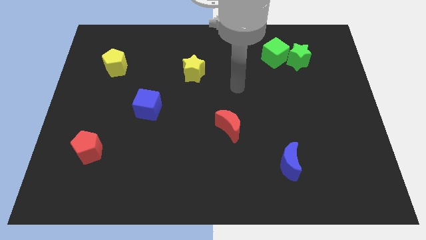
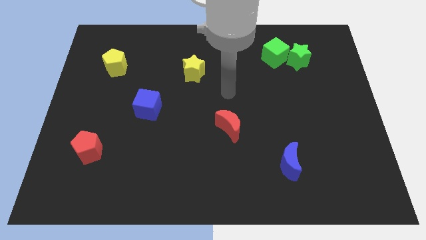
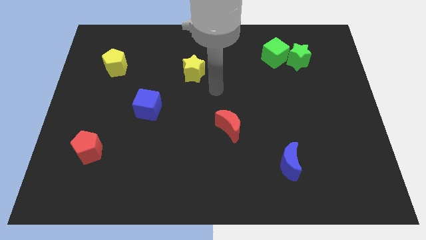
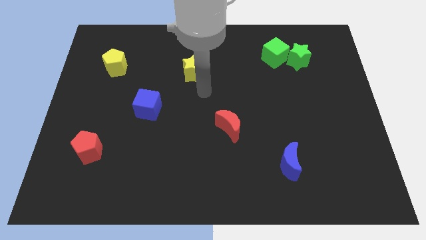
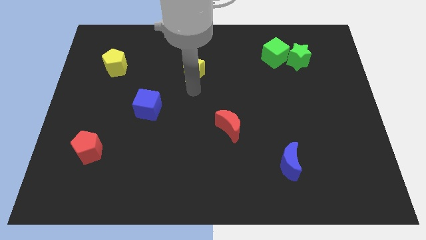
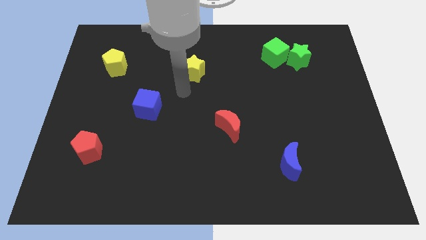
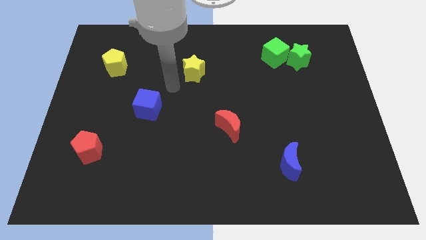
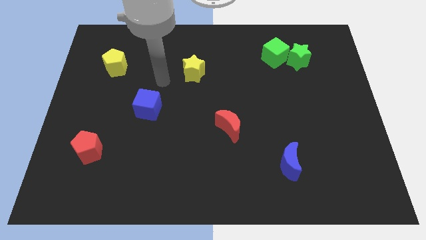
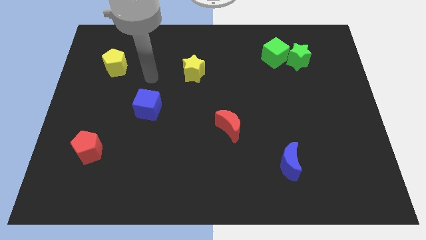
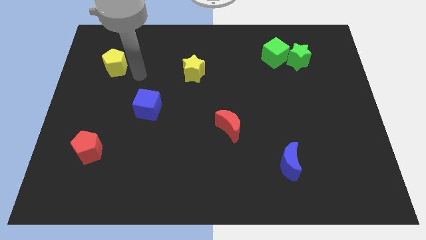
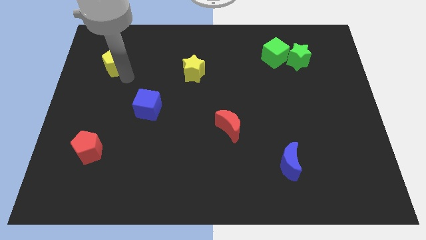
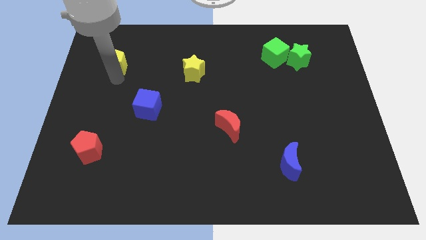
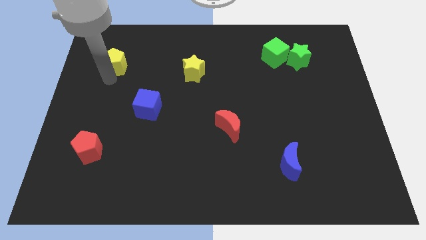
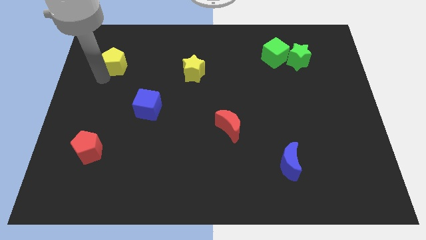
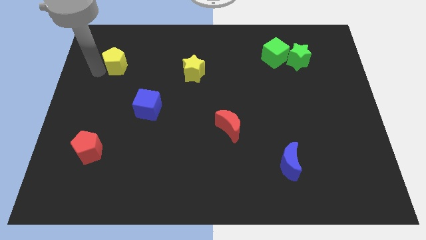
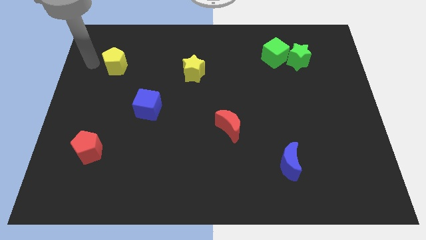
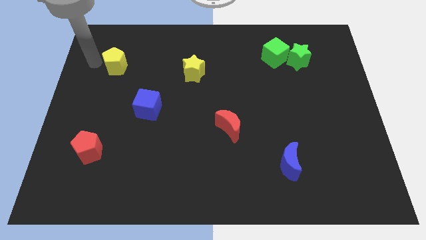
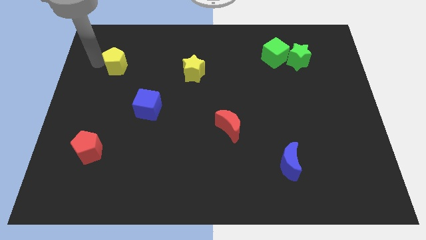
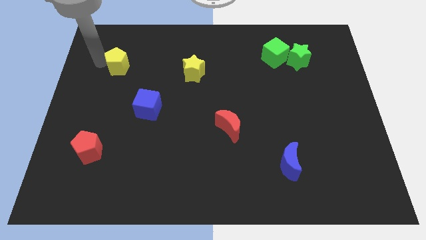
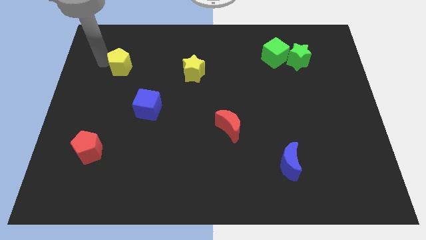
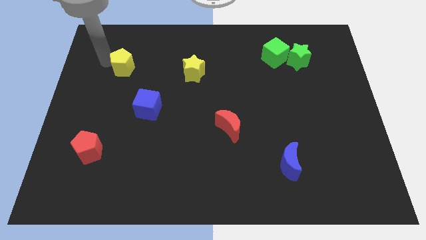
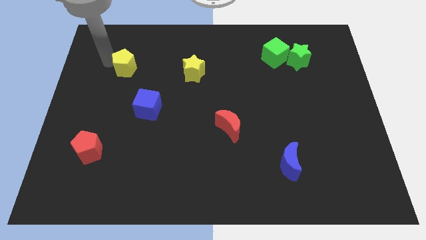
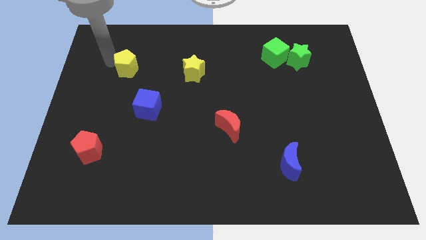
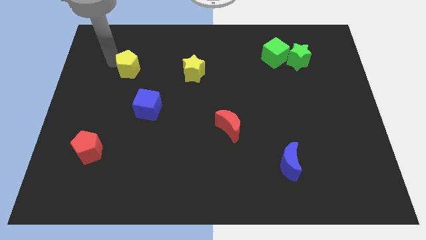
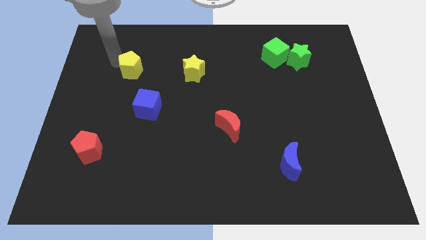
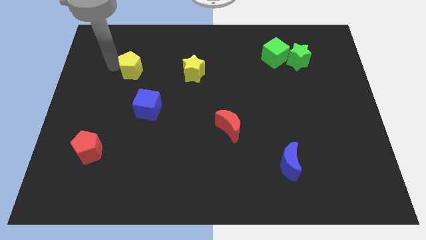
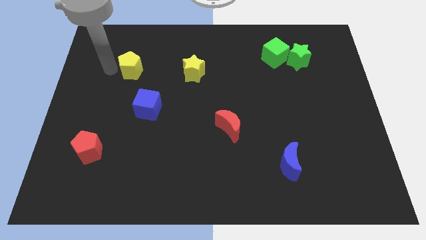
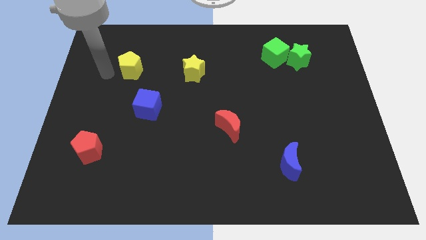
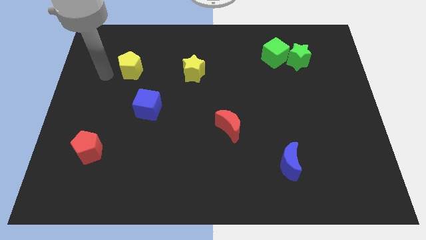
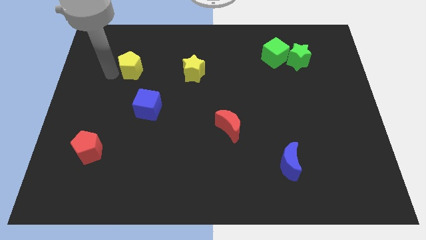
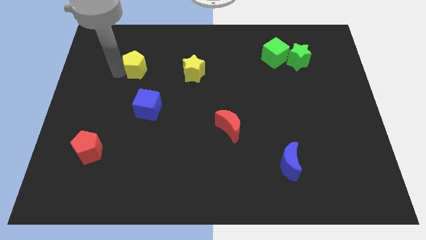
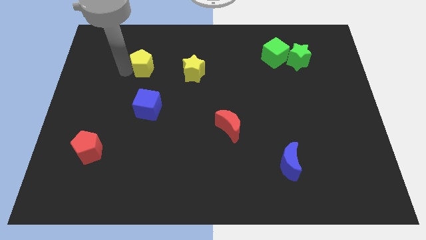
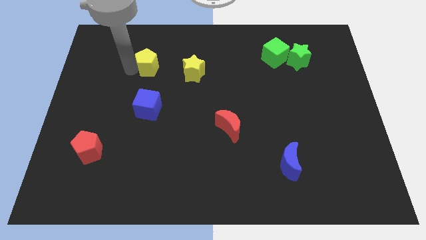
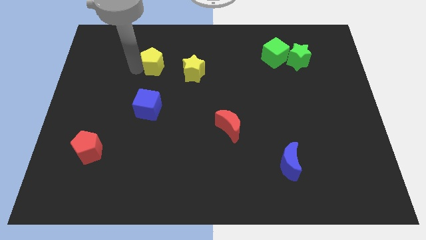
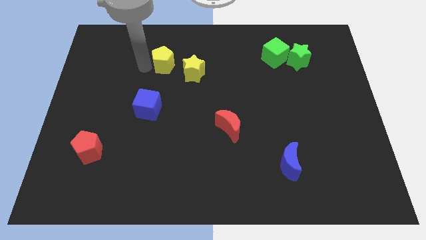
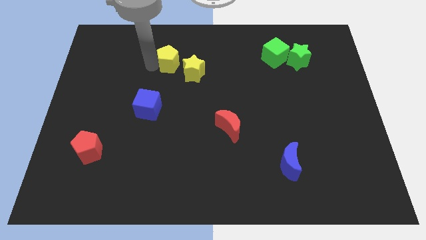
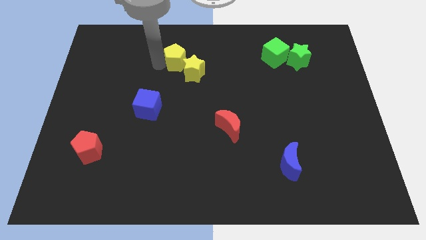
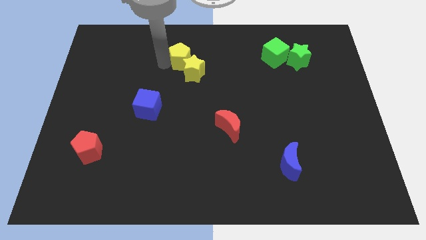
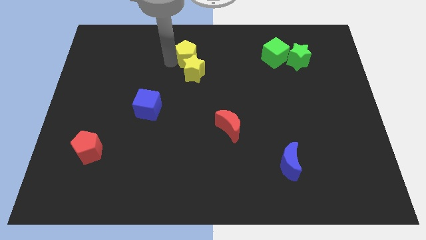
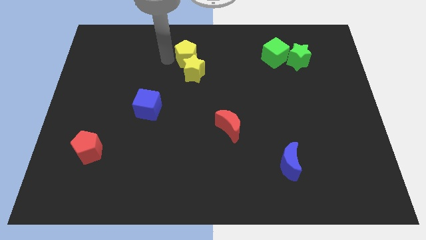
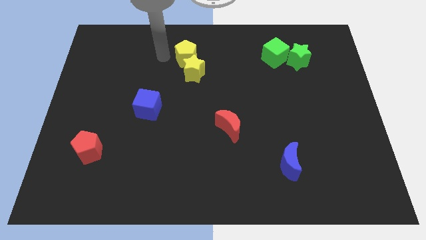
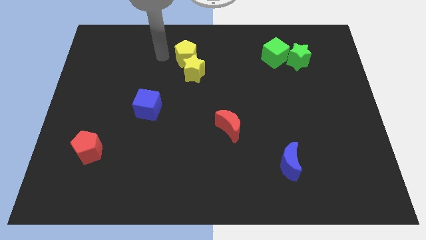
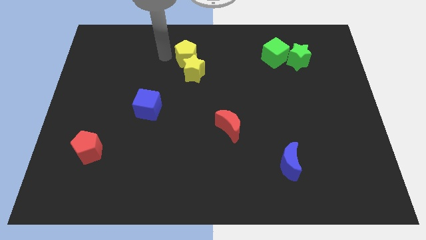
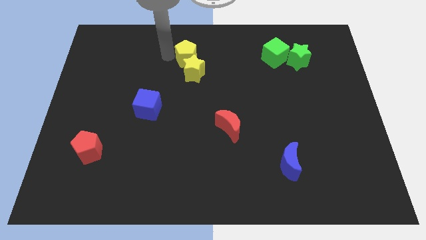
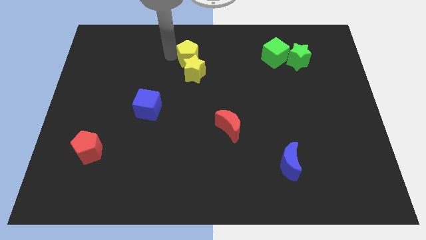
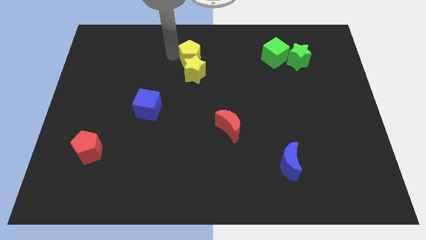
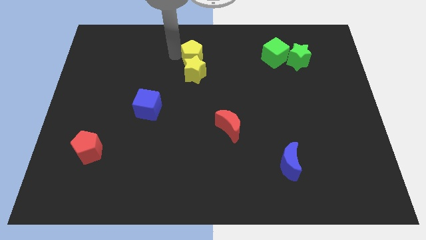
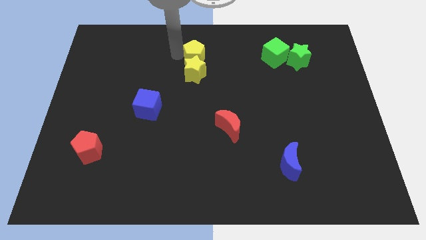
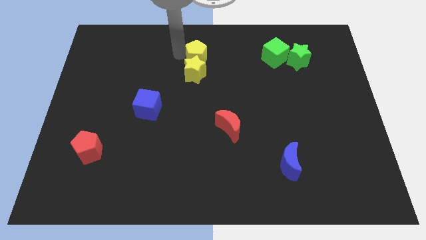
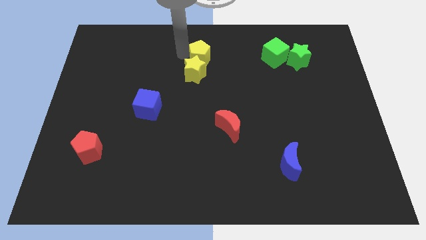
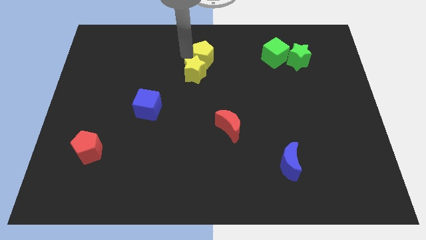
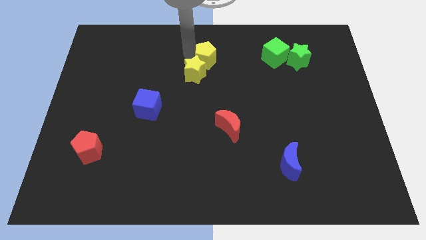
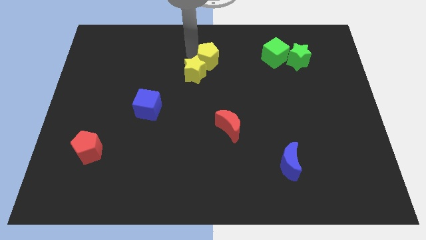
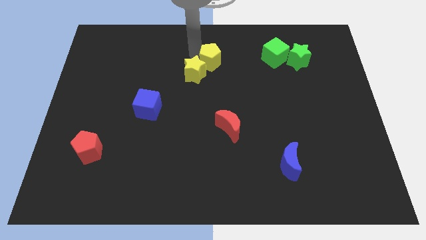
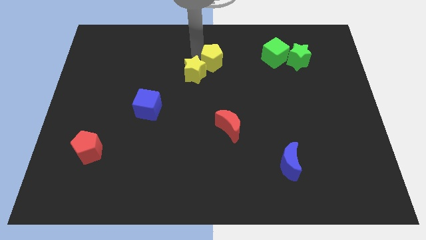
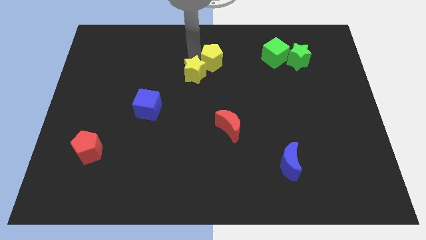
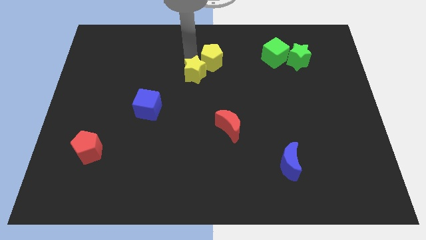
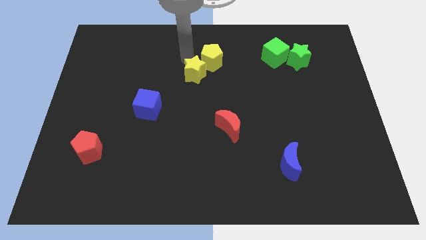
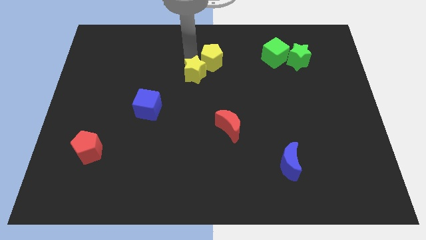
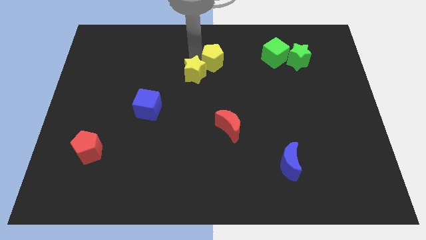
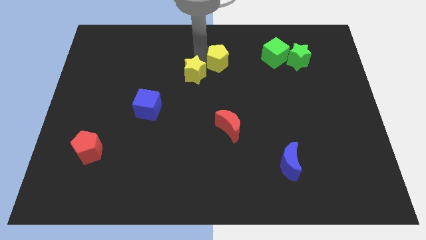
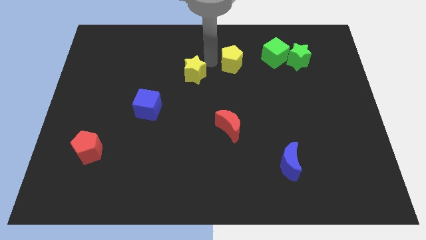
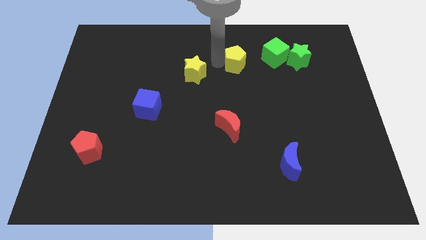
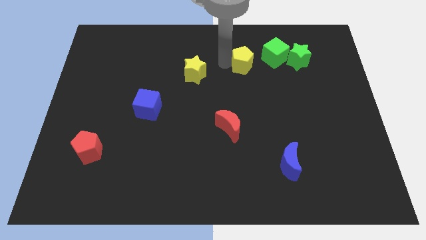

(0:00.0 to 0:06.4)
push the yellow pentagon left of the green star

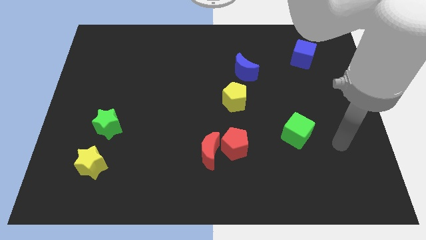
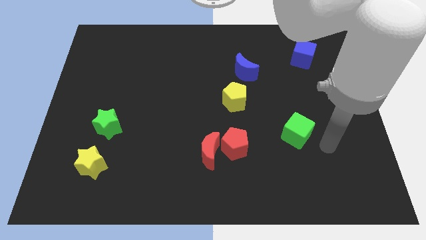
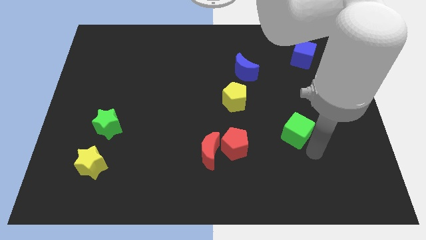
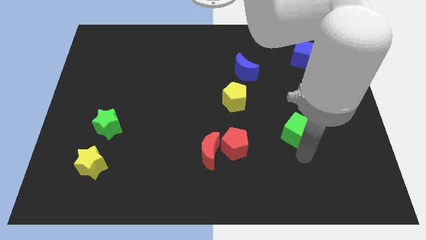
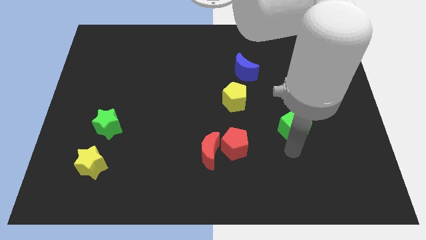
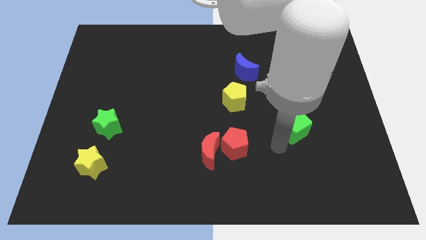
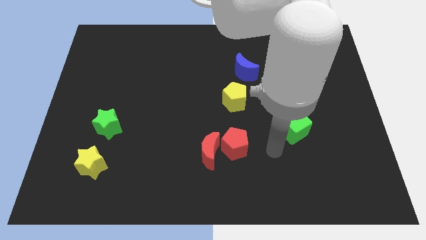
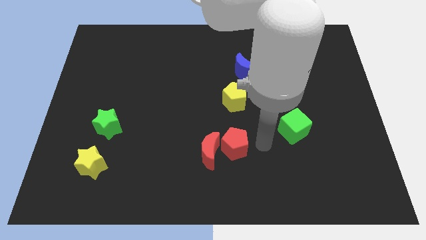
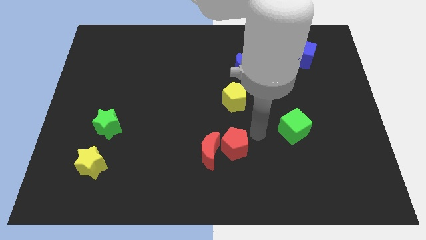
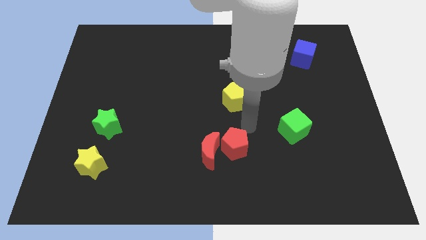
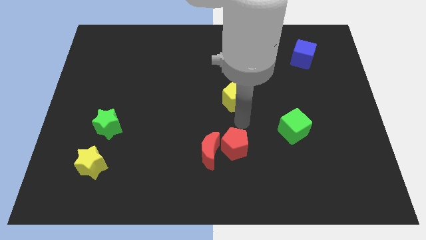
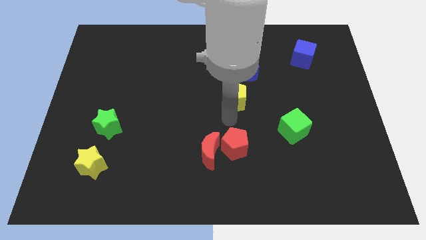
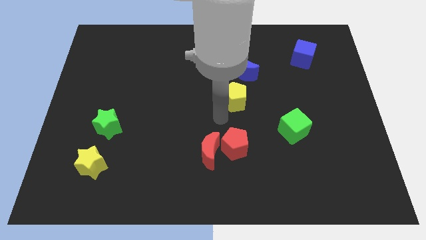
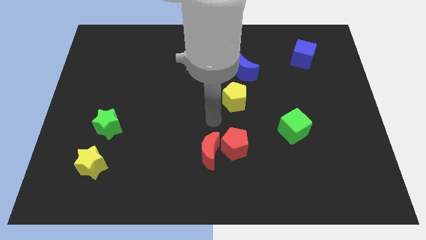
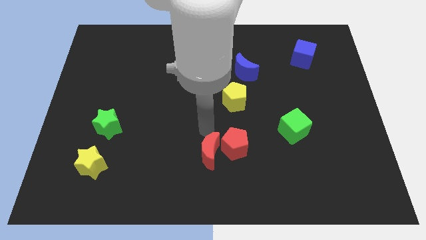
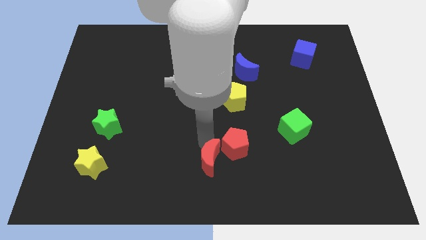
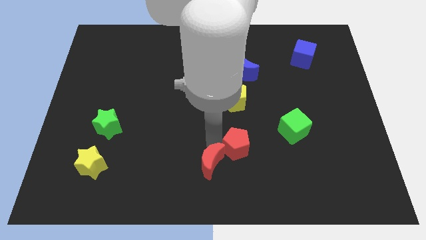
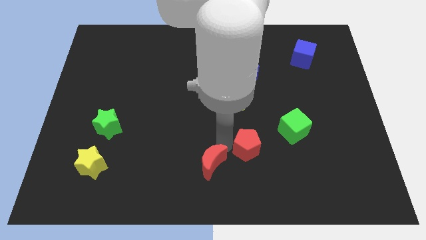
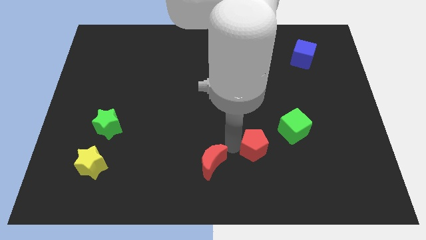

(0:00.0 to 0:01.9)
put the red pentagon to the bottom left of the green cube

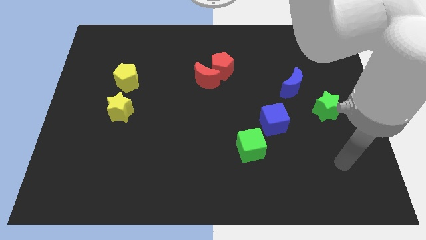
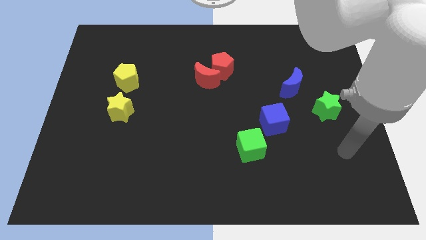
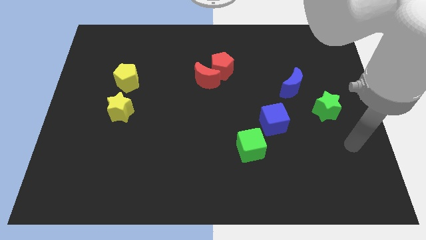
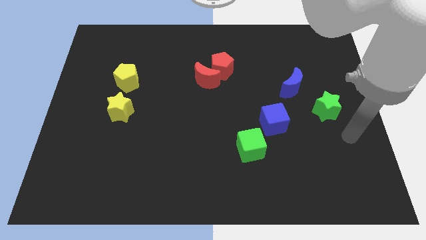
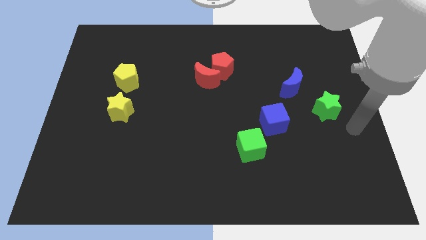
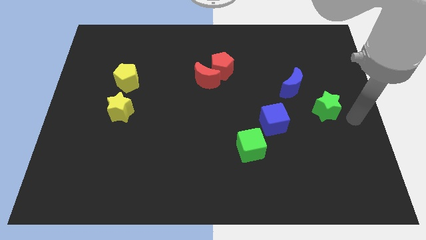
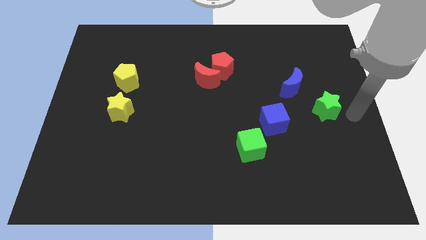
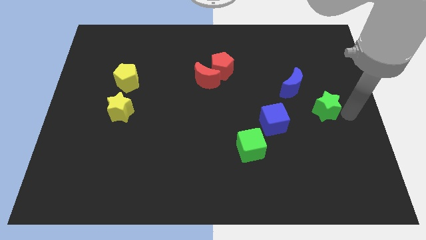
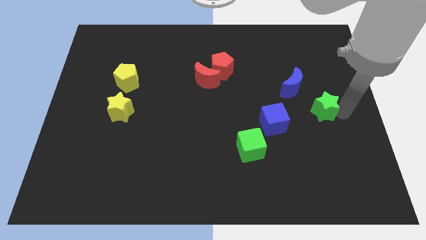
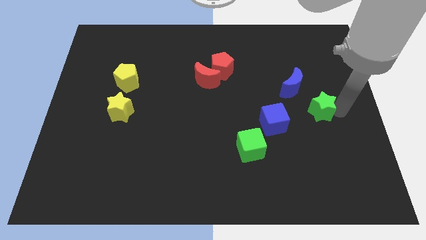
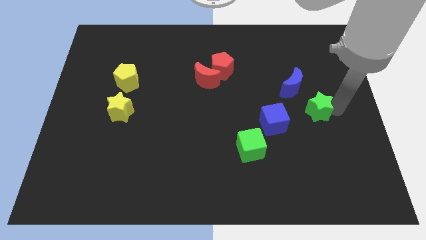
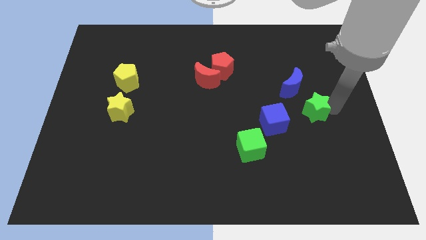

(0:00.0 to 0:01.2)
push the green star to the top right side of the blue cube
